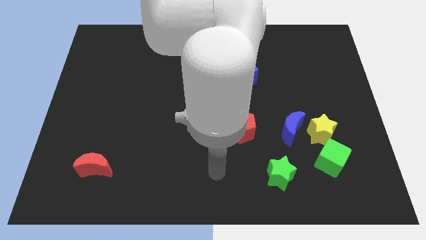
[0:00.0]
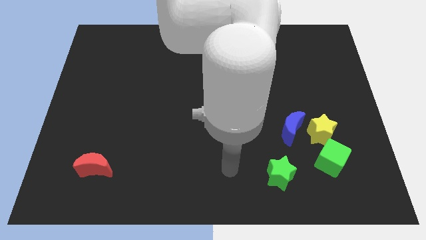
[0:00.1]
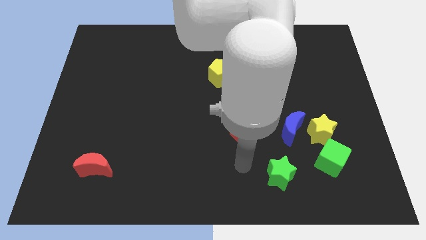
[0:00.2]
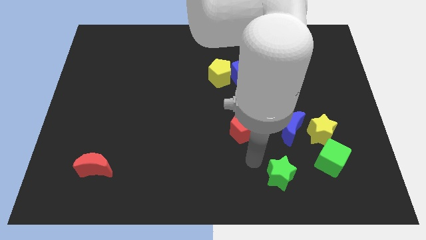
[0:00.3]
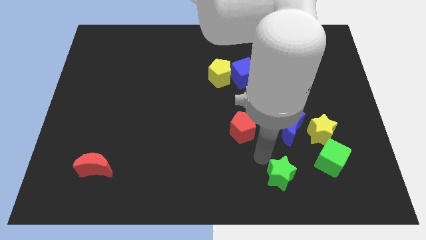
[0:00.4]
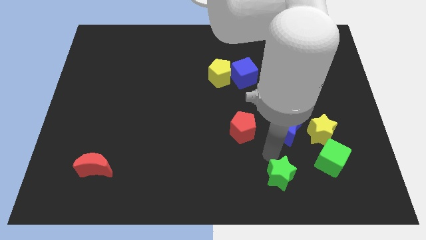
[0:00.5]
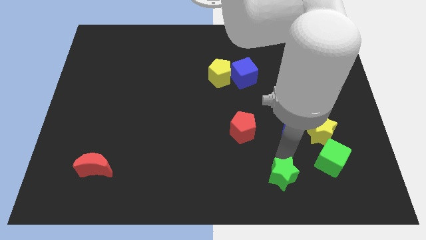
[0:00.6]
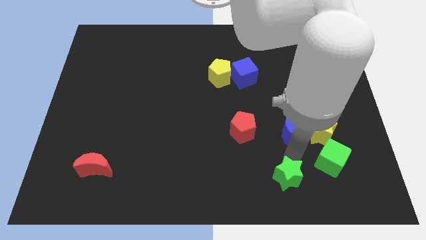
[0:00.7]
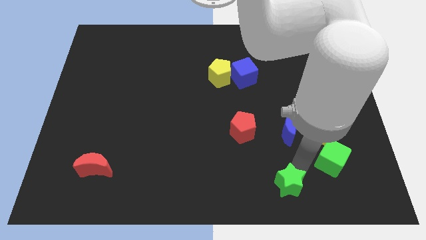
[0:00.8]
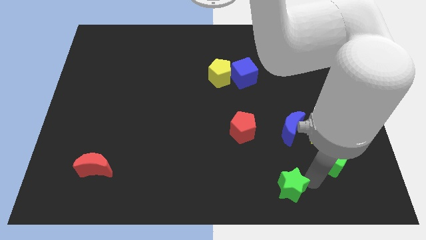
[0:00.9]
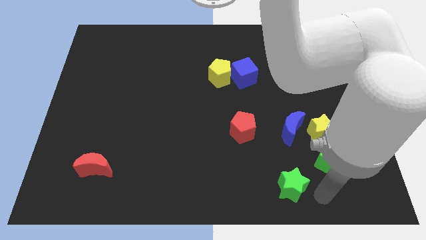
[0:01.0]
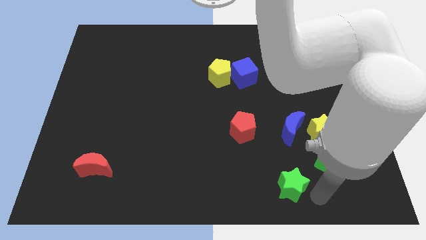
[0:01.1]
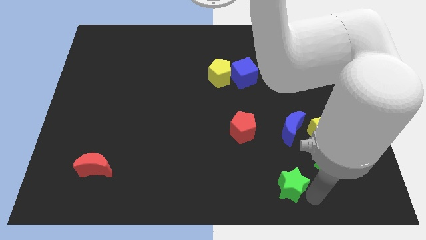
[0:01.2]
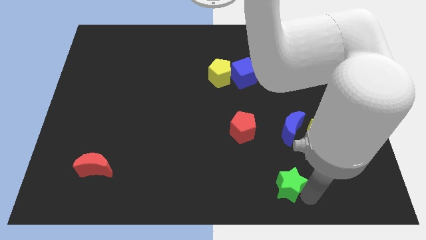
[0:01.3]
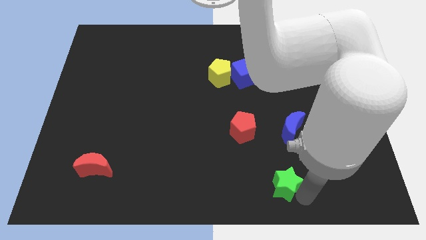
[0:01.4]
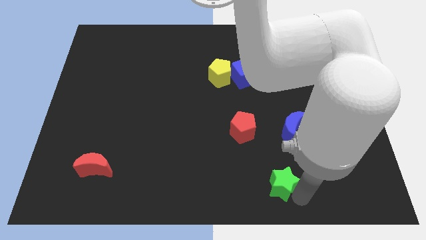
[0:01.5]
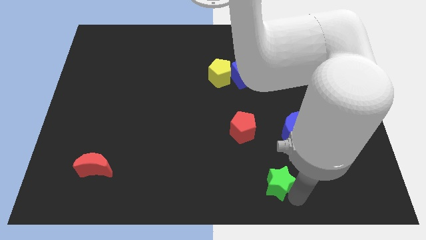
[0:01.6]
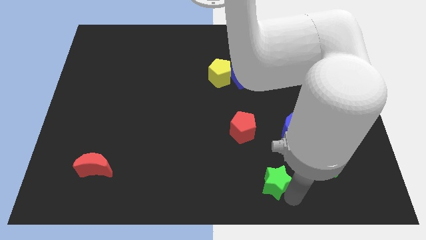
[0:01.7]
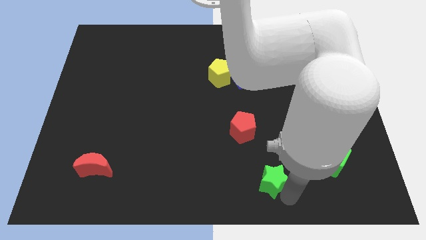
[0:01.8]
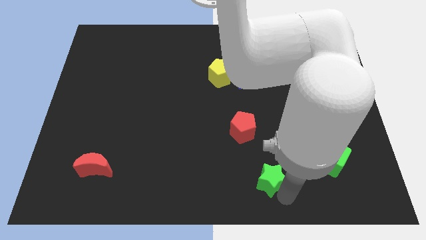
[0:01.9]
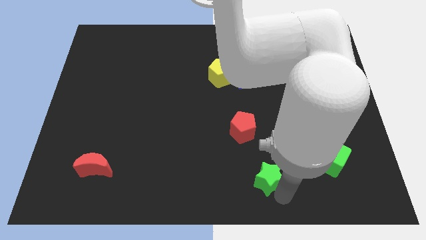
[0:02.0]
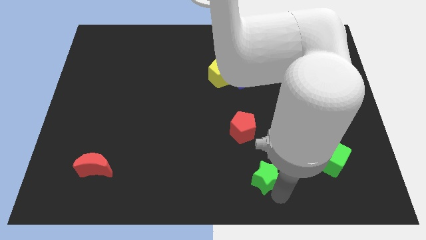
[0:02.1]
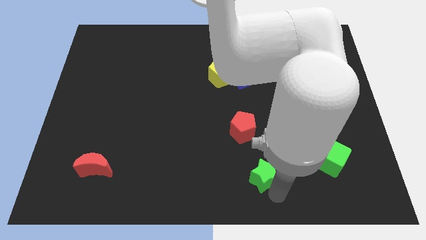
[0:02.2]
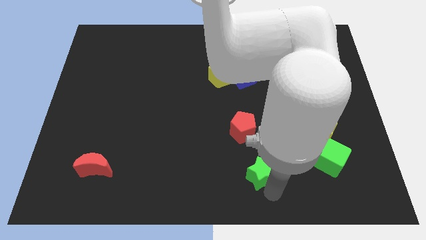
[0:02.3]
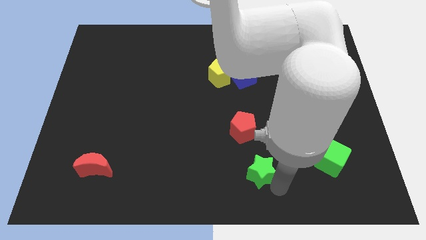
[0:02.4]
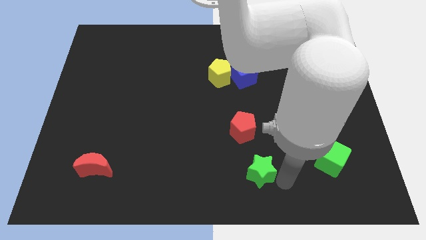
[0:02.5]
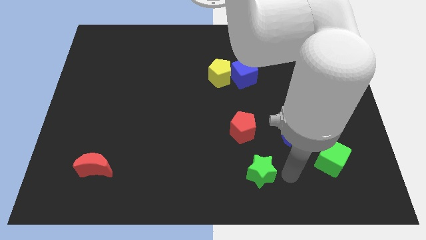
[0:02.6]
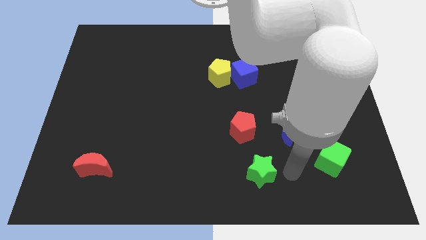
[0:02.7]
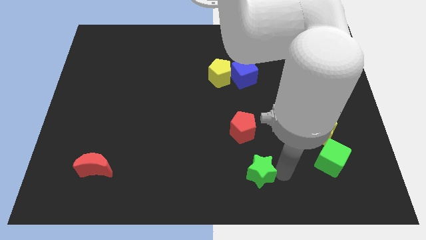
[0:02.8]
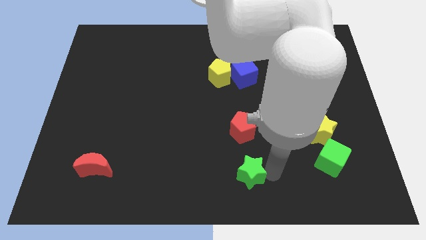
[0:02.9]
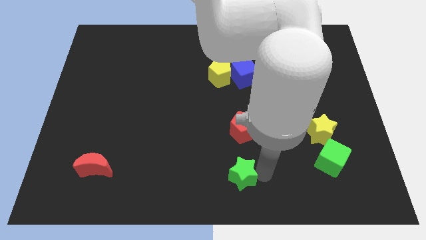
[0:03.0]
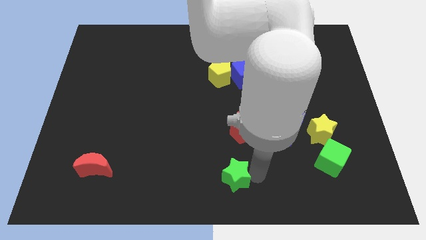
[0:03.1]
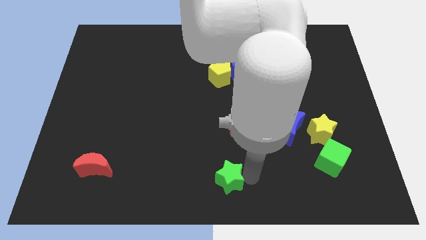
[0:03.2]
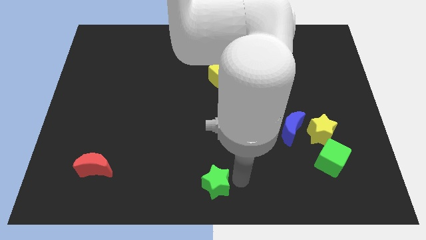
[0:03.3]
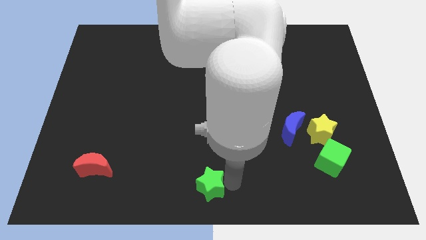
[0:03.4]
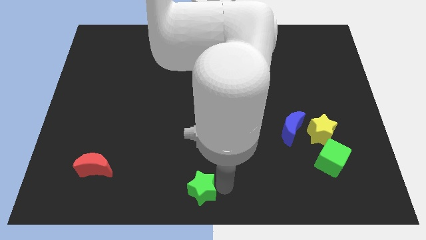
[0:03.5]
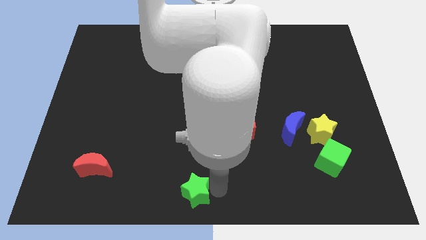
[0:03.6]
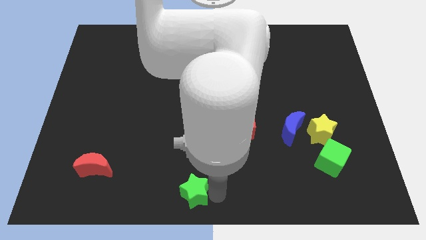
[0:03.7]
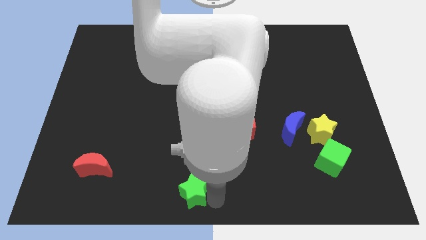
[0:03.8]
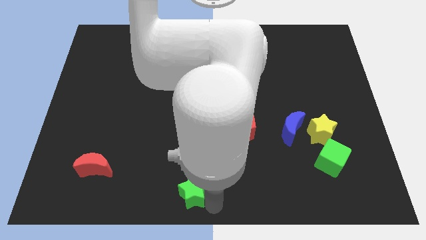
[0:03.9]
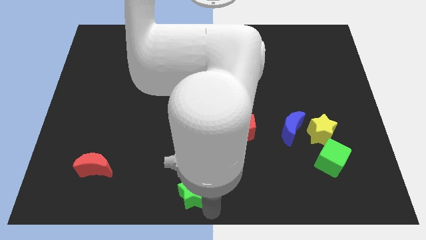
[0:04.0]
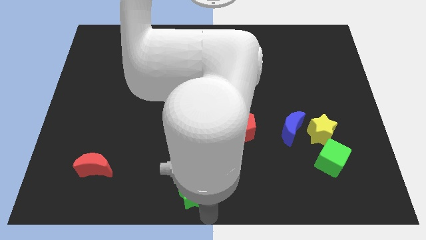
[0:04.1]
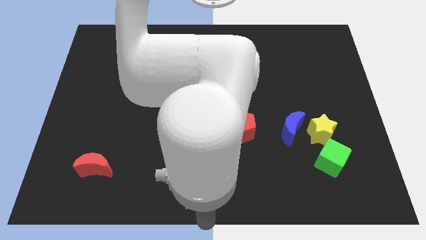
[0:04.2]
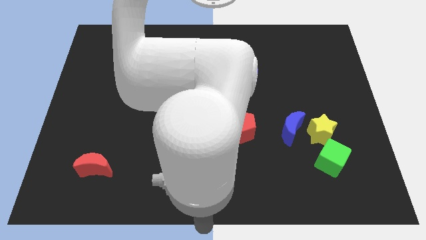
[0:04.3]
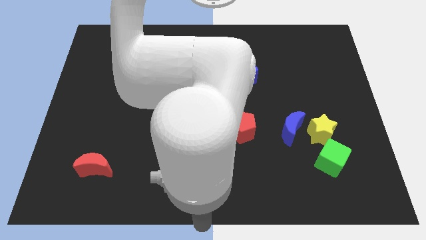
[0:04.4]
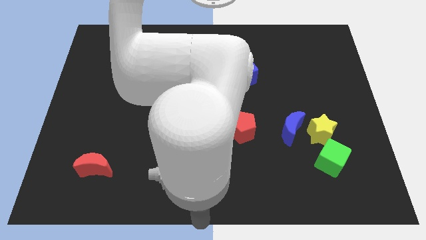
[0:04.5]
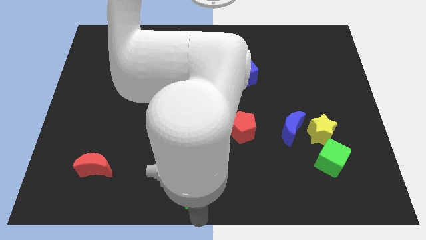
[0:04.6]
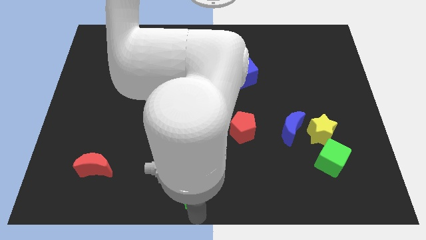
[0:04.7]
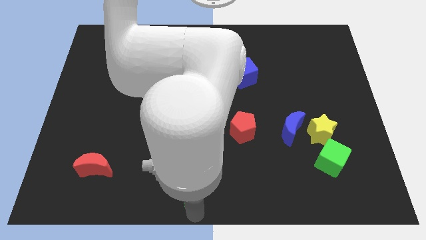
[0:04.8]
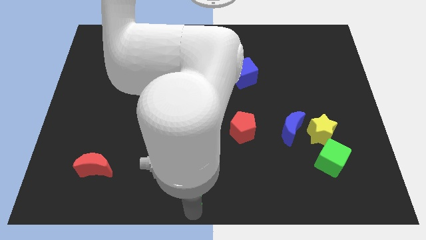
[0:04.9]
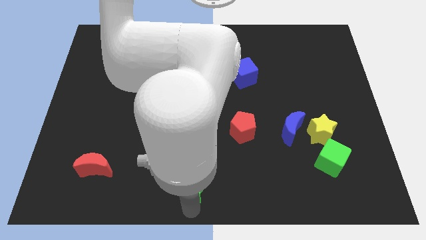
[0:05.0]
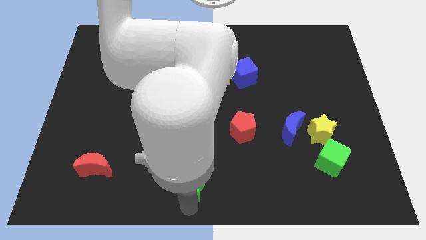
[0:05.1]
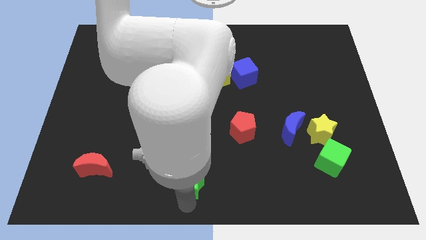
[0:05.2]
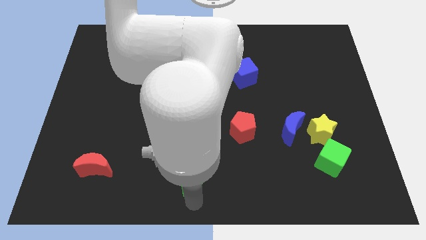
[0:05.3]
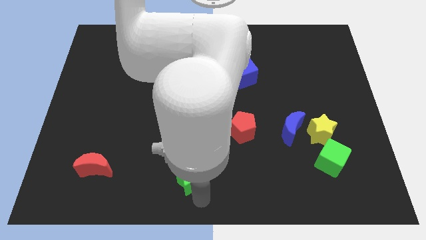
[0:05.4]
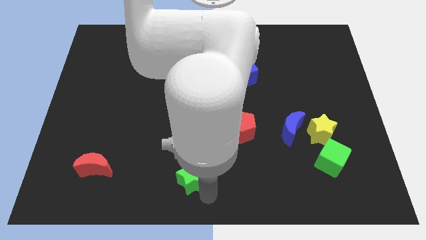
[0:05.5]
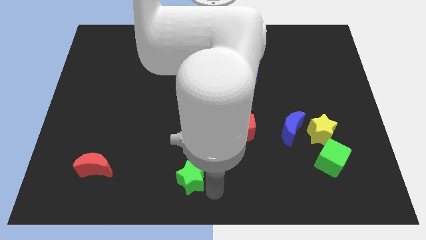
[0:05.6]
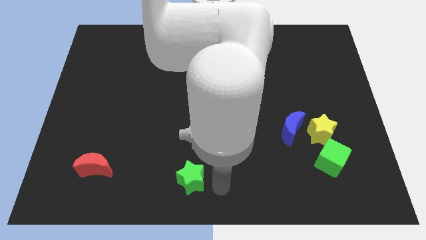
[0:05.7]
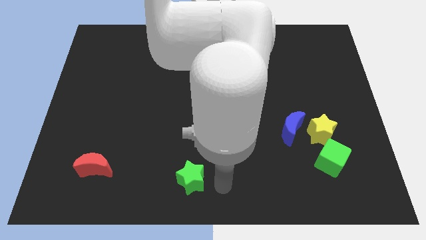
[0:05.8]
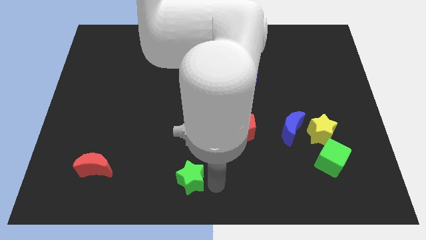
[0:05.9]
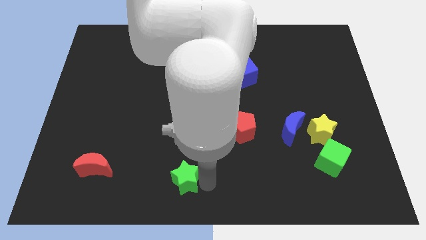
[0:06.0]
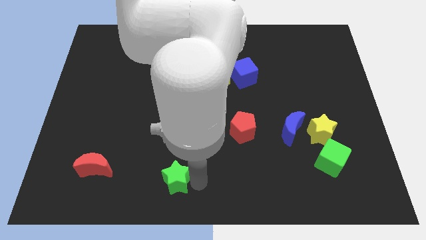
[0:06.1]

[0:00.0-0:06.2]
move the green star left

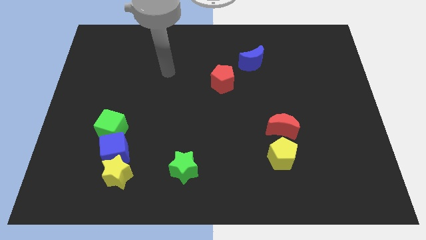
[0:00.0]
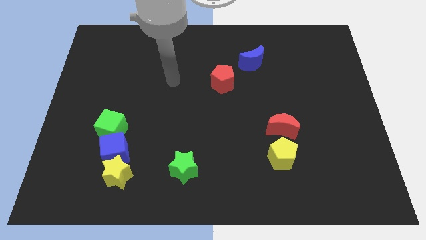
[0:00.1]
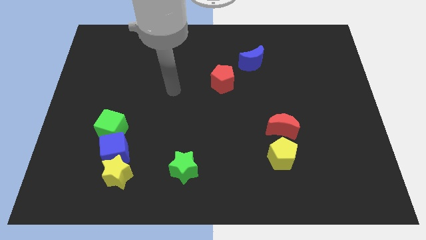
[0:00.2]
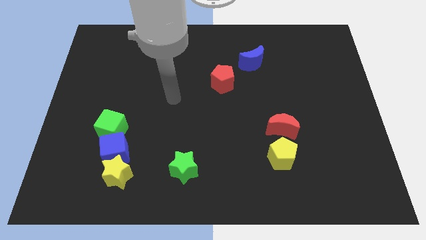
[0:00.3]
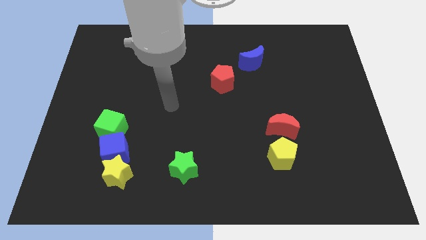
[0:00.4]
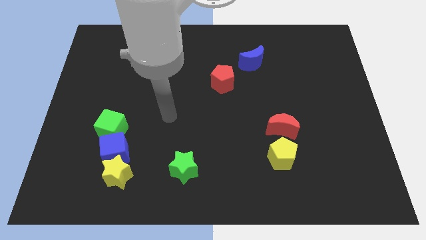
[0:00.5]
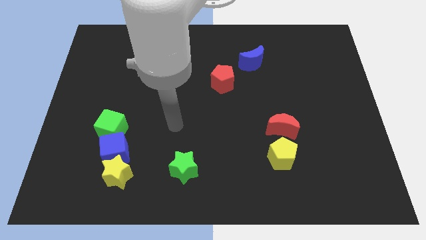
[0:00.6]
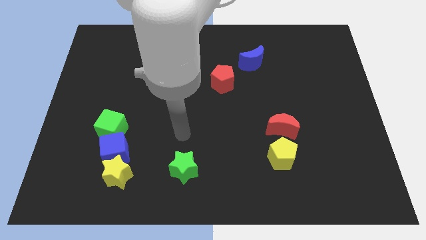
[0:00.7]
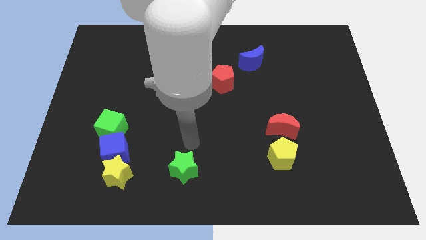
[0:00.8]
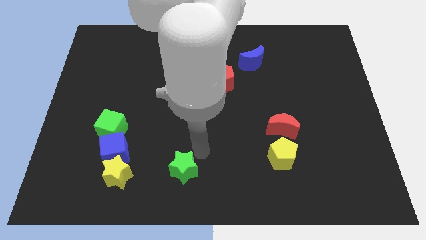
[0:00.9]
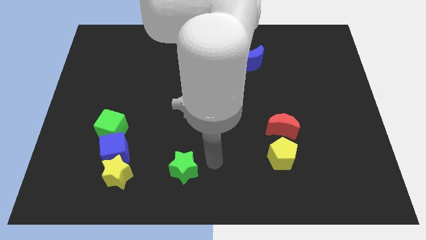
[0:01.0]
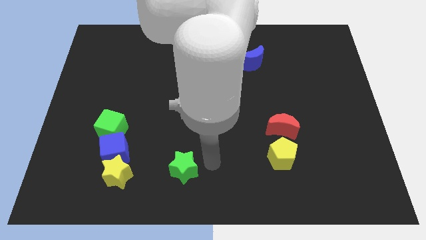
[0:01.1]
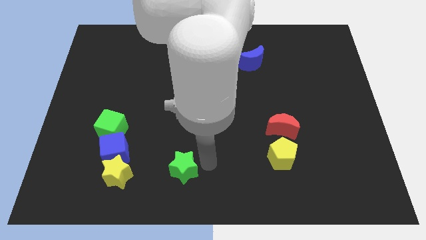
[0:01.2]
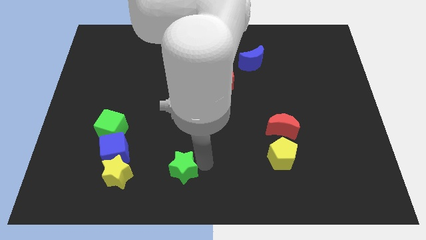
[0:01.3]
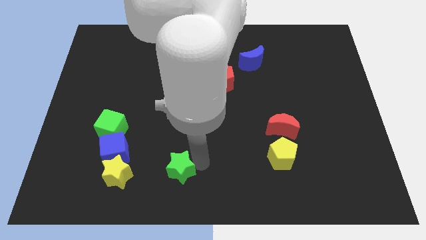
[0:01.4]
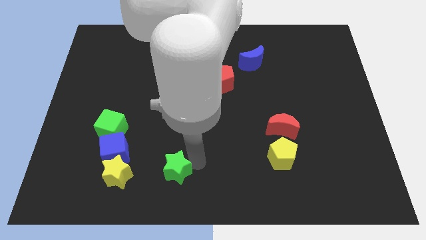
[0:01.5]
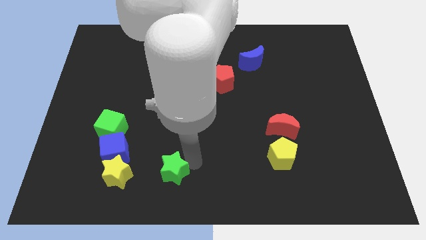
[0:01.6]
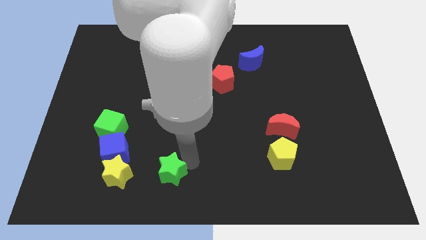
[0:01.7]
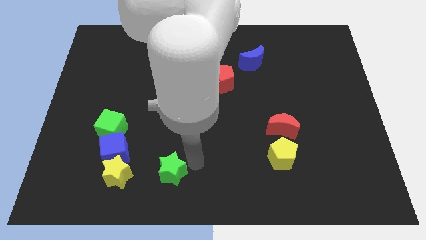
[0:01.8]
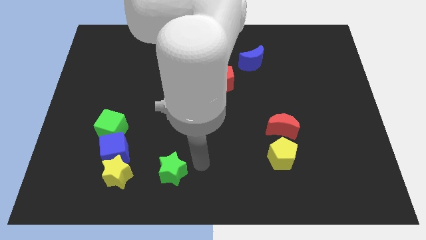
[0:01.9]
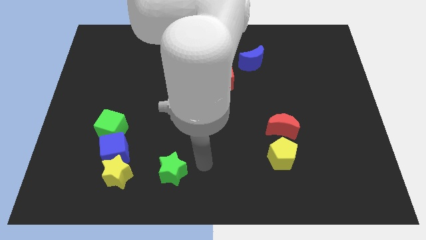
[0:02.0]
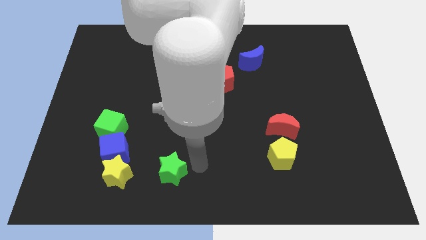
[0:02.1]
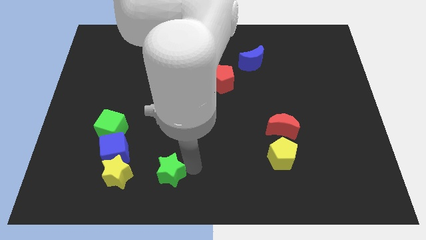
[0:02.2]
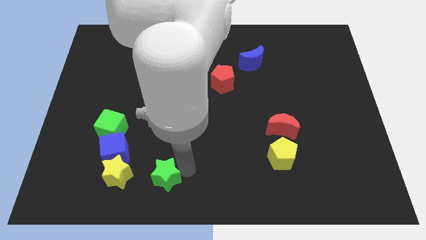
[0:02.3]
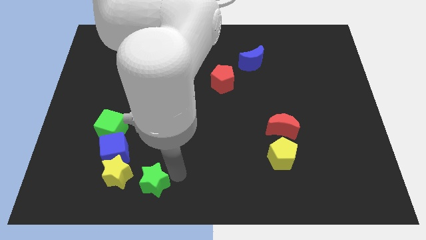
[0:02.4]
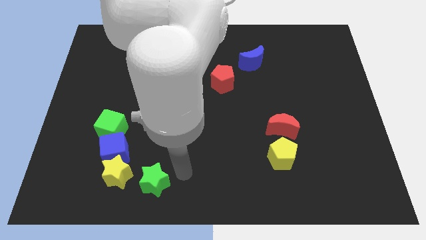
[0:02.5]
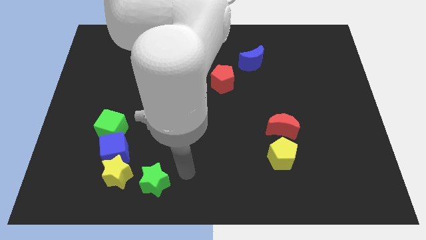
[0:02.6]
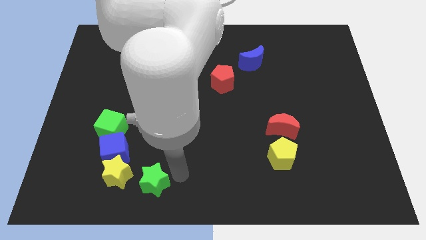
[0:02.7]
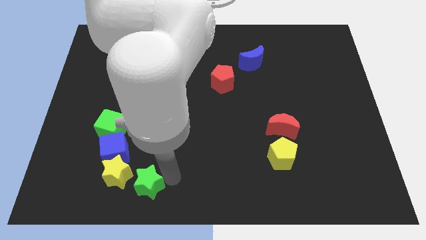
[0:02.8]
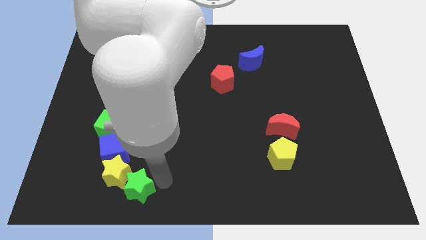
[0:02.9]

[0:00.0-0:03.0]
slide the green star to the left a bit
